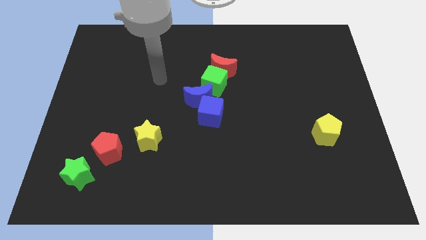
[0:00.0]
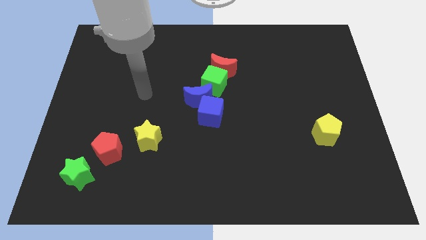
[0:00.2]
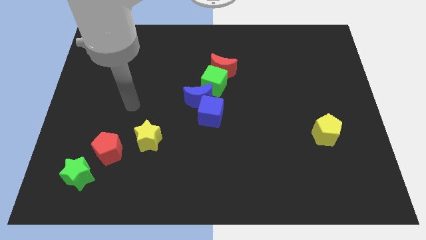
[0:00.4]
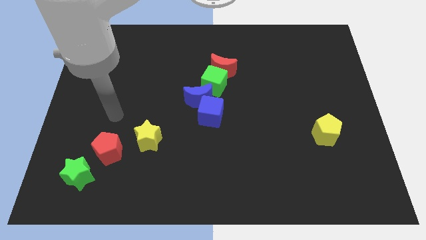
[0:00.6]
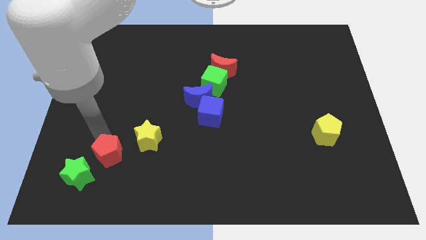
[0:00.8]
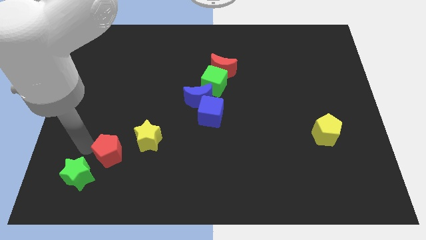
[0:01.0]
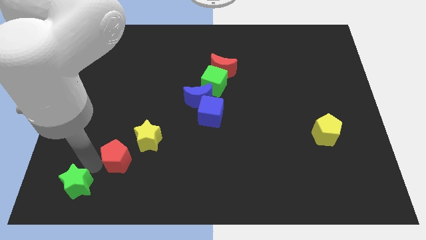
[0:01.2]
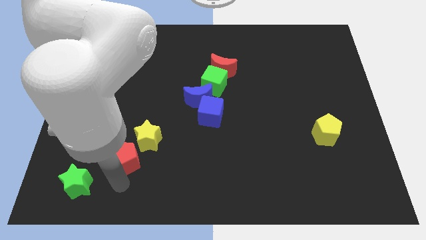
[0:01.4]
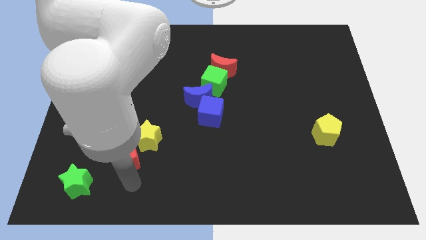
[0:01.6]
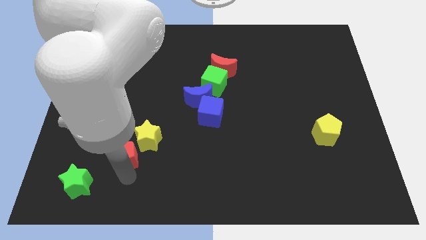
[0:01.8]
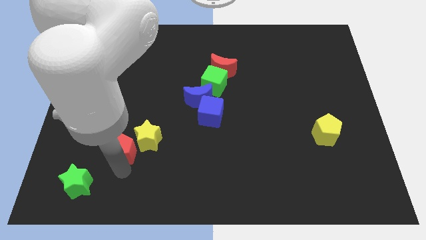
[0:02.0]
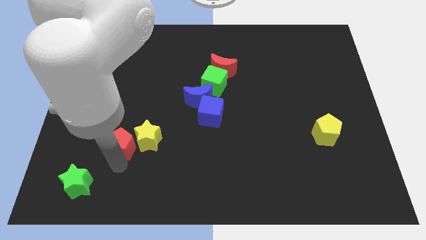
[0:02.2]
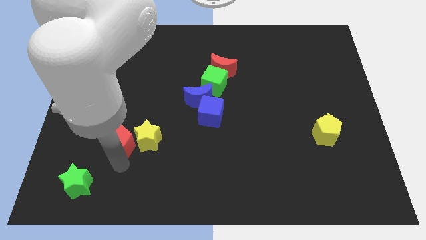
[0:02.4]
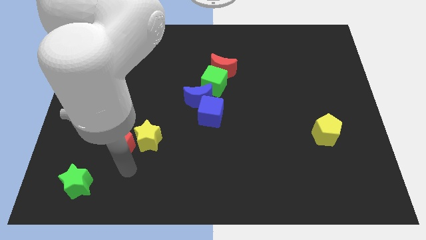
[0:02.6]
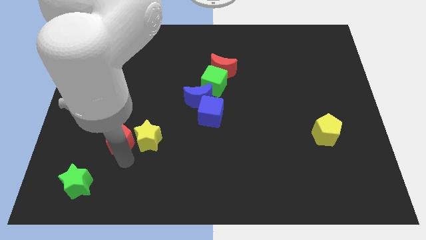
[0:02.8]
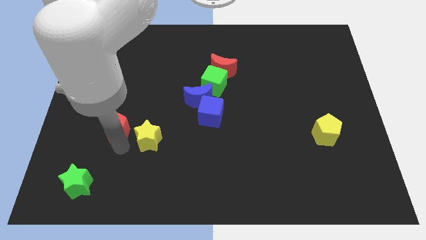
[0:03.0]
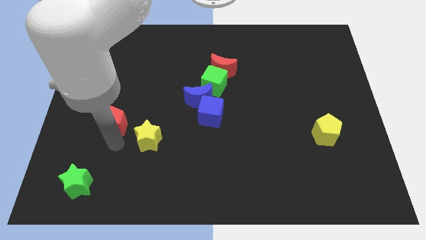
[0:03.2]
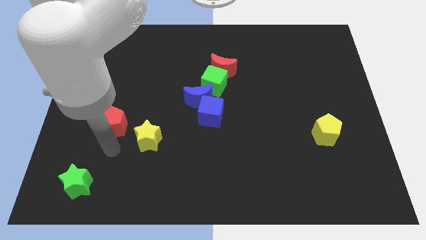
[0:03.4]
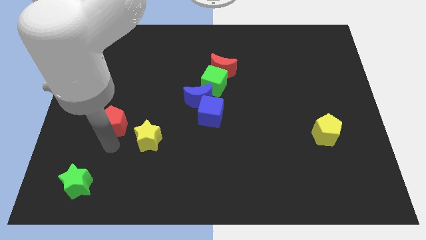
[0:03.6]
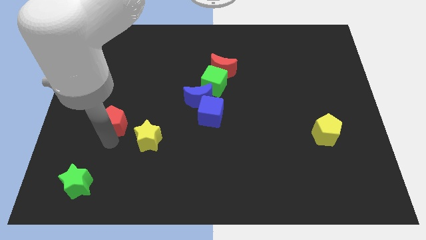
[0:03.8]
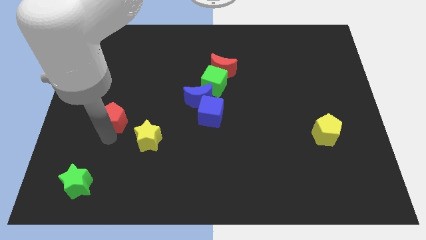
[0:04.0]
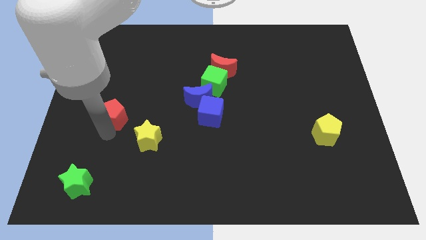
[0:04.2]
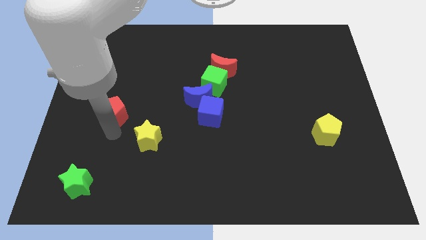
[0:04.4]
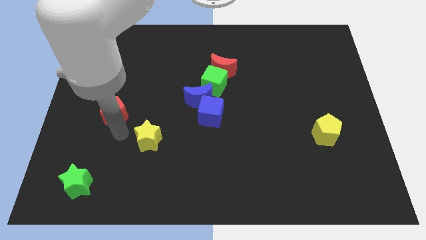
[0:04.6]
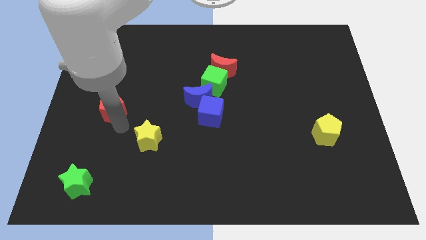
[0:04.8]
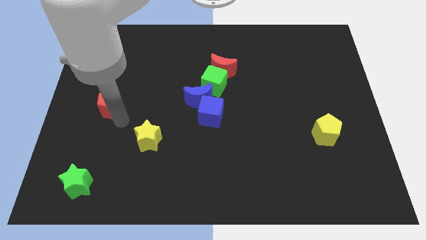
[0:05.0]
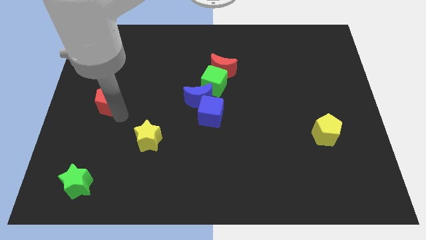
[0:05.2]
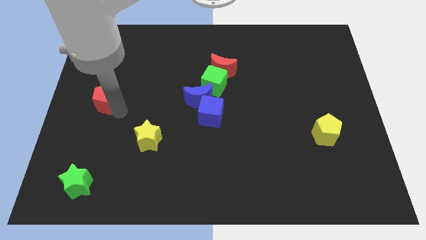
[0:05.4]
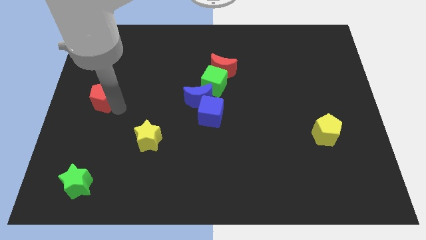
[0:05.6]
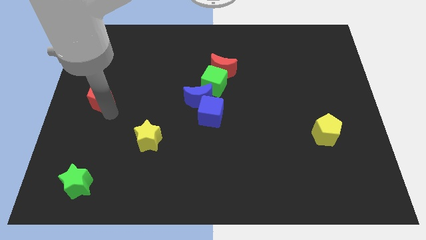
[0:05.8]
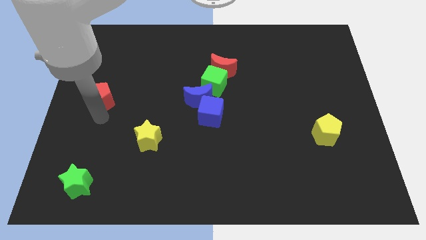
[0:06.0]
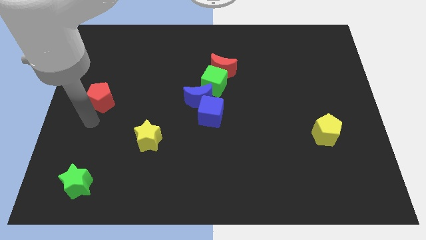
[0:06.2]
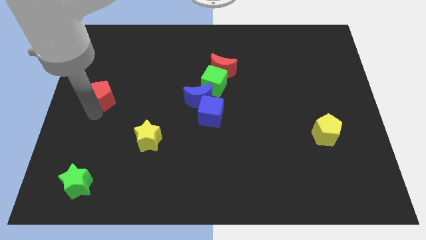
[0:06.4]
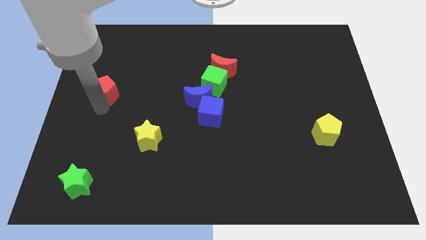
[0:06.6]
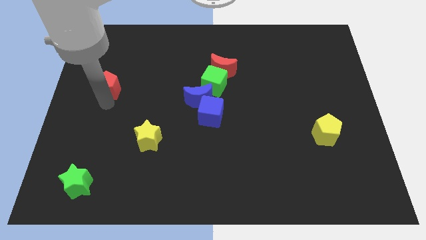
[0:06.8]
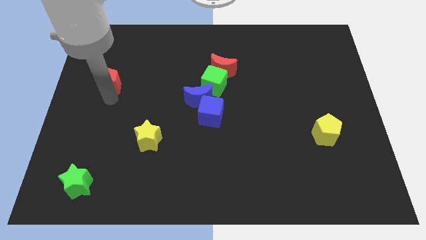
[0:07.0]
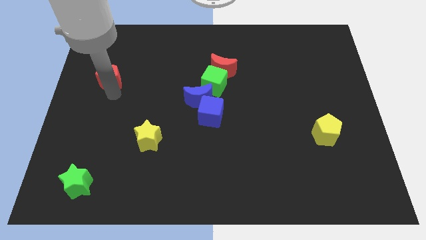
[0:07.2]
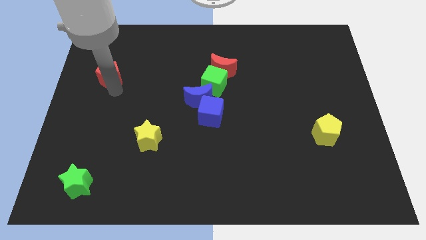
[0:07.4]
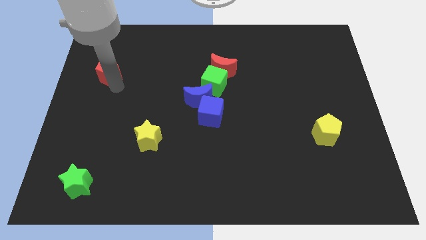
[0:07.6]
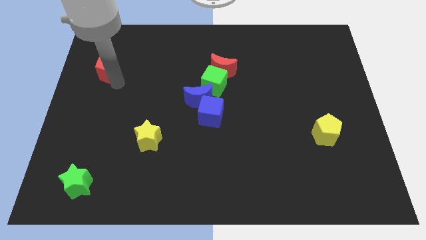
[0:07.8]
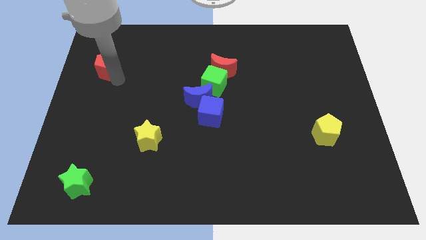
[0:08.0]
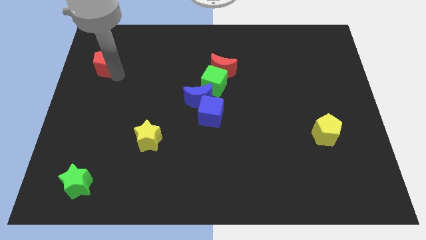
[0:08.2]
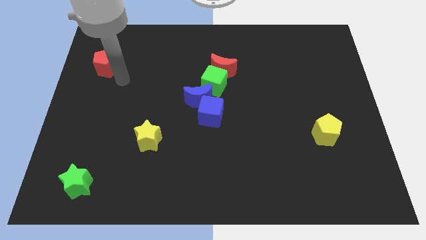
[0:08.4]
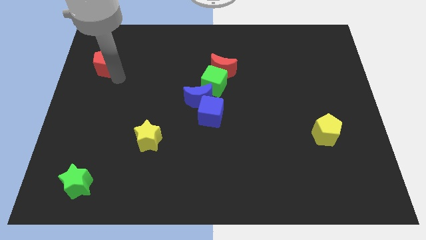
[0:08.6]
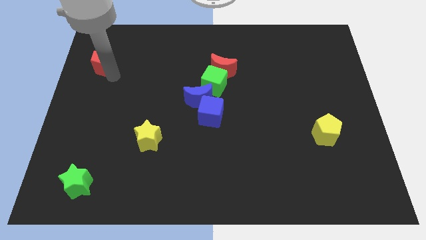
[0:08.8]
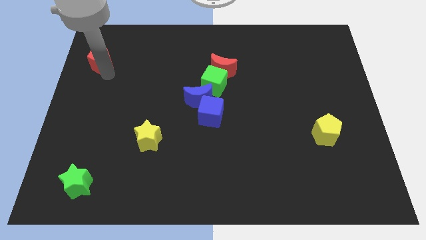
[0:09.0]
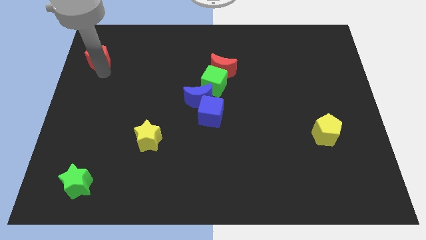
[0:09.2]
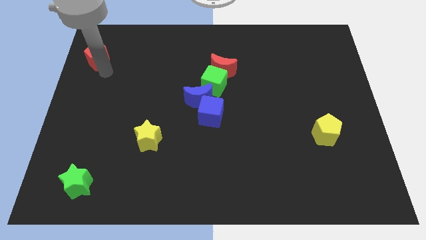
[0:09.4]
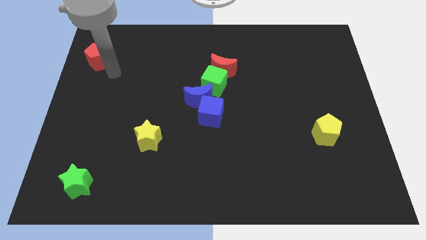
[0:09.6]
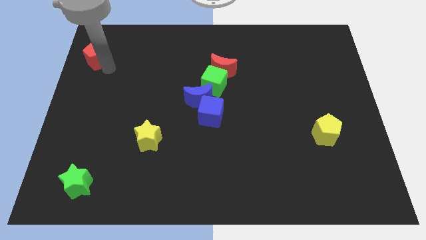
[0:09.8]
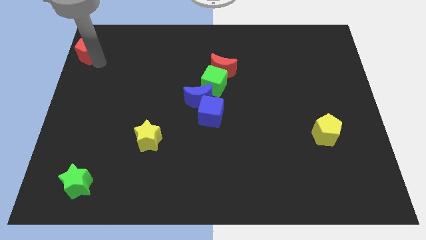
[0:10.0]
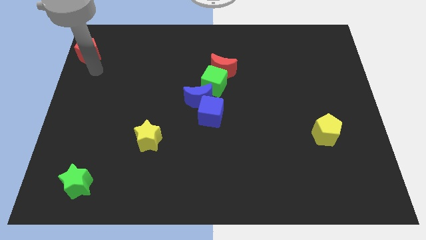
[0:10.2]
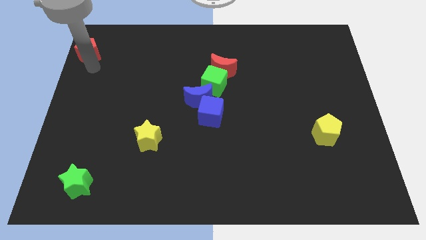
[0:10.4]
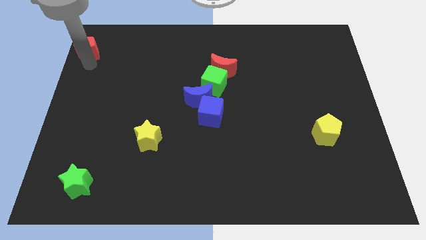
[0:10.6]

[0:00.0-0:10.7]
push the red pentagon to the top left
